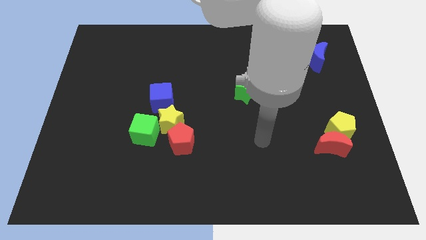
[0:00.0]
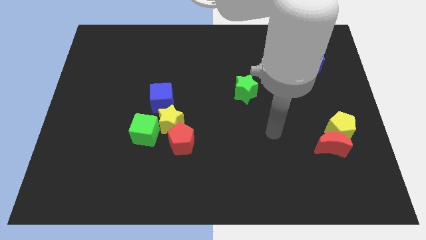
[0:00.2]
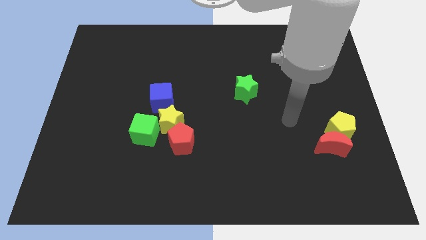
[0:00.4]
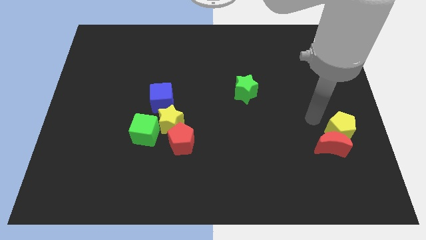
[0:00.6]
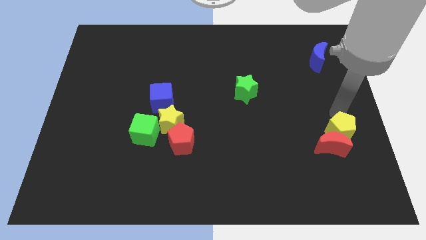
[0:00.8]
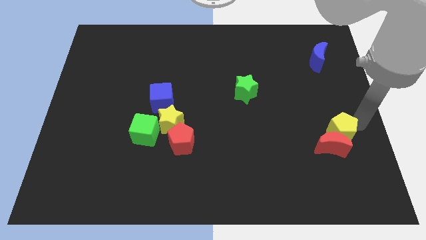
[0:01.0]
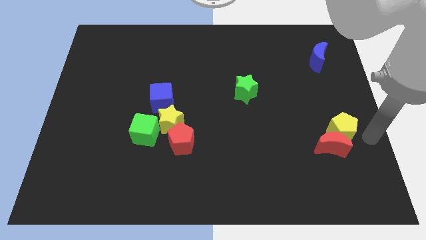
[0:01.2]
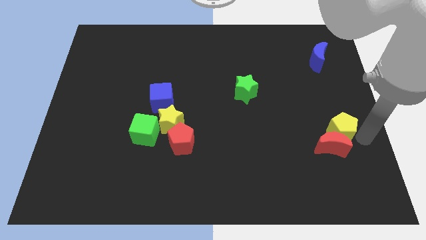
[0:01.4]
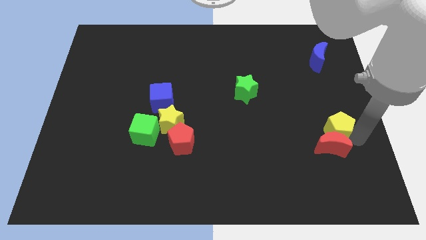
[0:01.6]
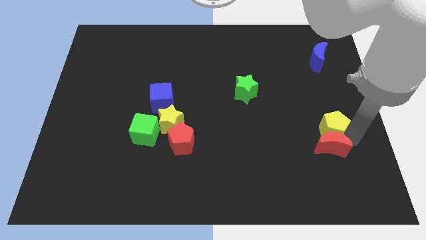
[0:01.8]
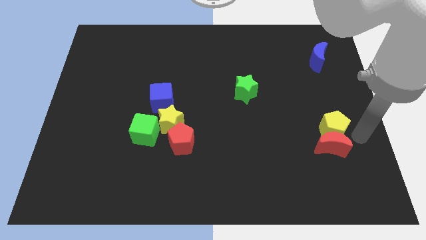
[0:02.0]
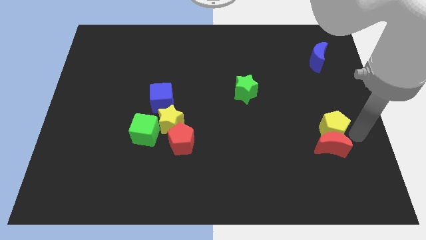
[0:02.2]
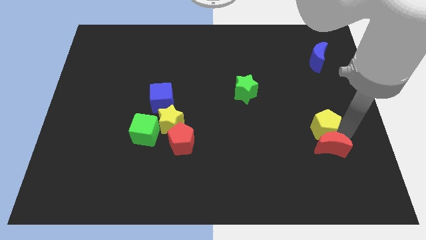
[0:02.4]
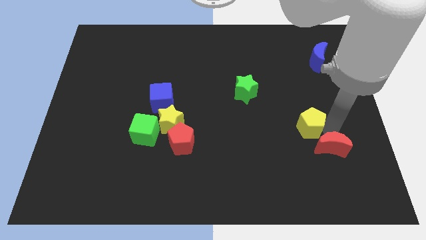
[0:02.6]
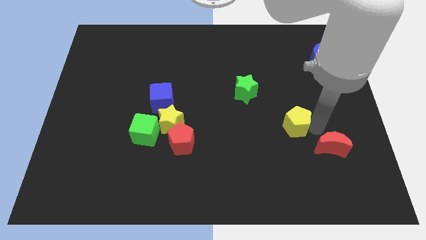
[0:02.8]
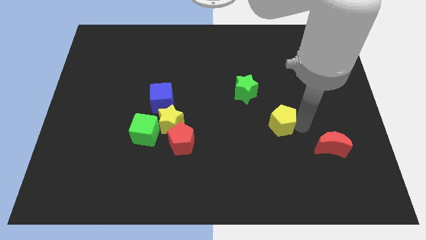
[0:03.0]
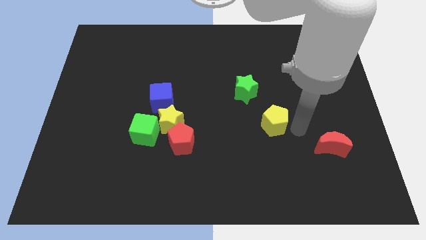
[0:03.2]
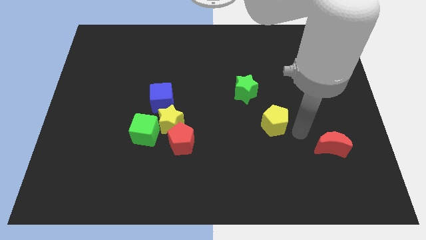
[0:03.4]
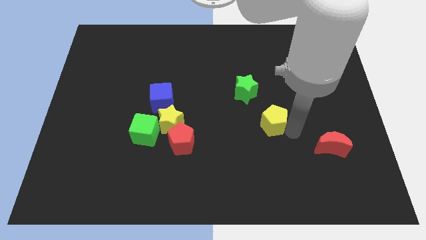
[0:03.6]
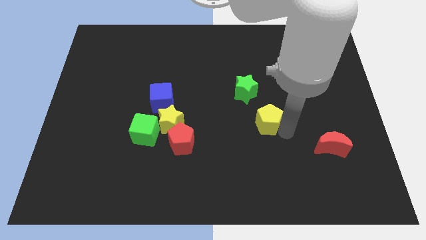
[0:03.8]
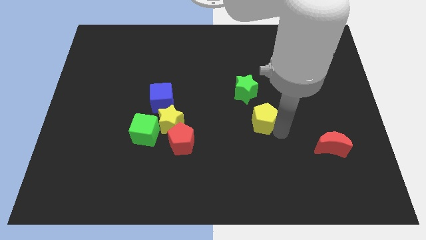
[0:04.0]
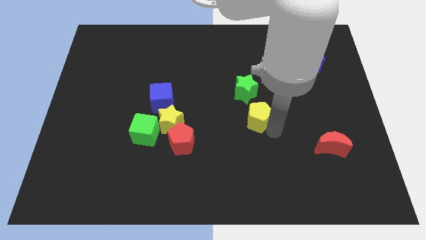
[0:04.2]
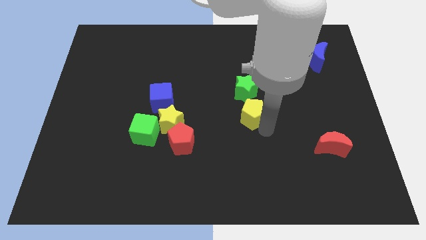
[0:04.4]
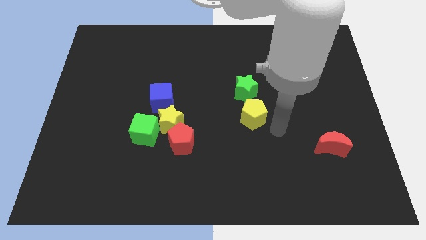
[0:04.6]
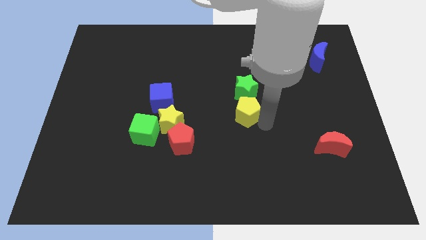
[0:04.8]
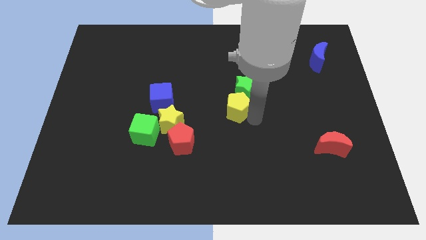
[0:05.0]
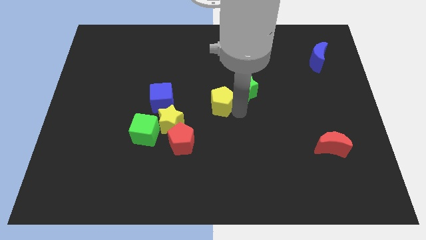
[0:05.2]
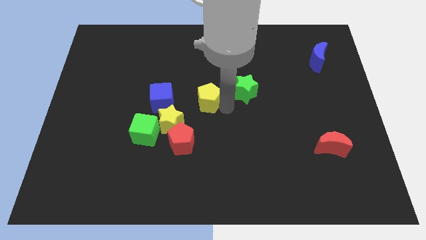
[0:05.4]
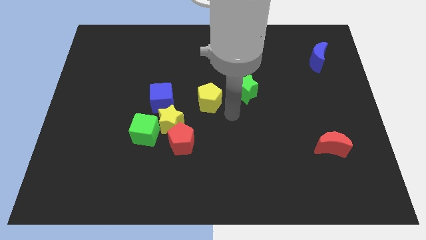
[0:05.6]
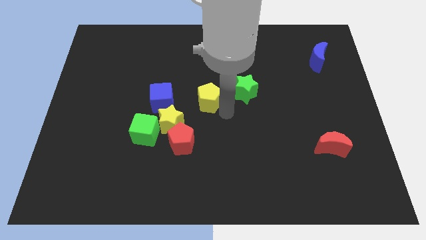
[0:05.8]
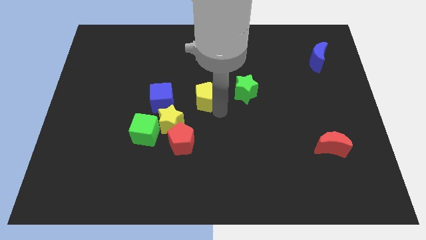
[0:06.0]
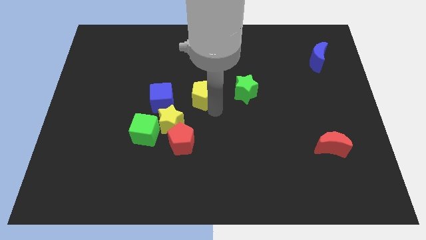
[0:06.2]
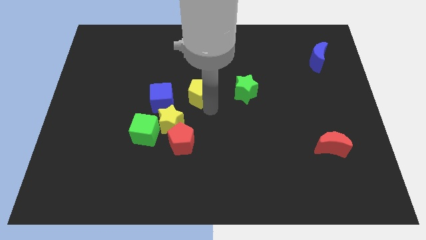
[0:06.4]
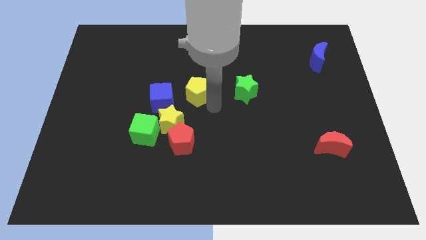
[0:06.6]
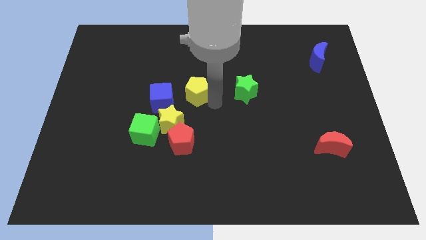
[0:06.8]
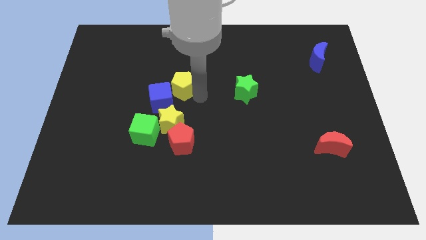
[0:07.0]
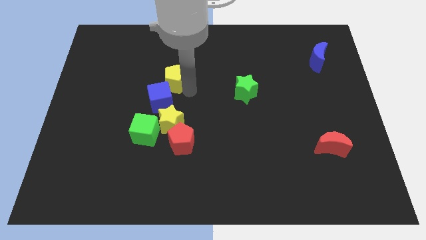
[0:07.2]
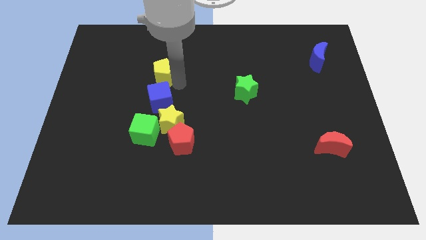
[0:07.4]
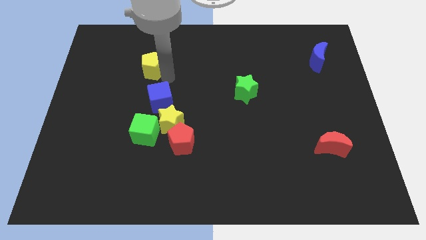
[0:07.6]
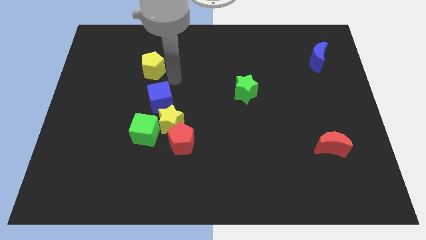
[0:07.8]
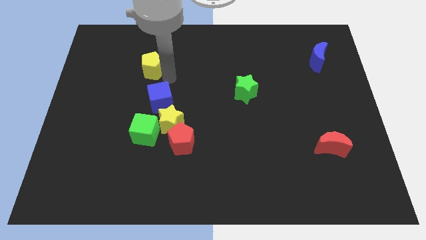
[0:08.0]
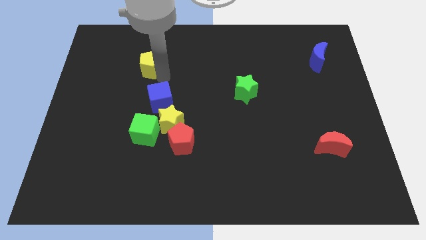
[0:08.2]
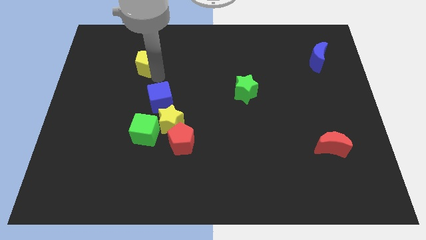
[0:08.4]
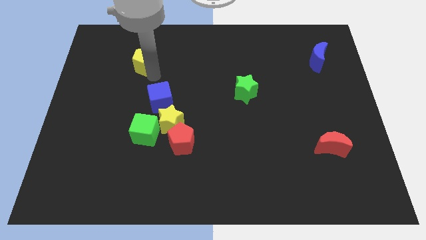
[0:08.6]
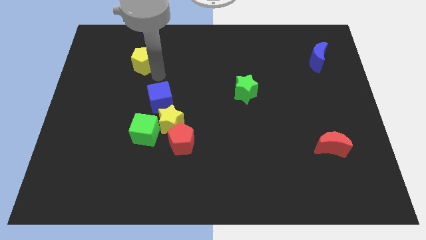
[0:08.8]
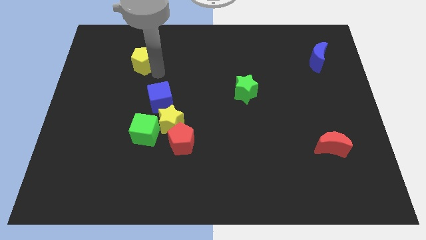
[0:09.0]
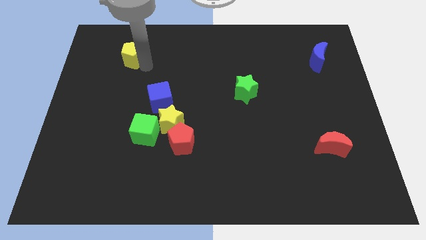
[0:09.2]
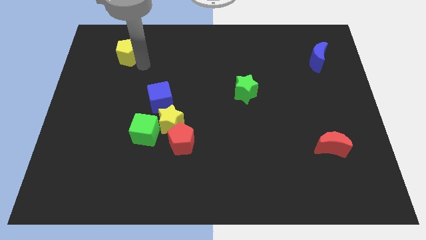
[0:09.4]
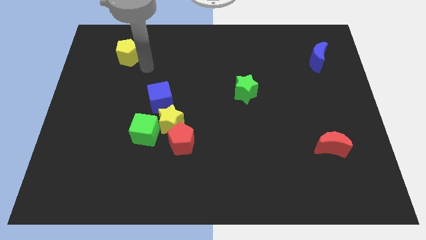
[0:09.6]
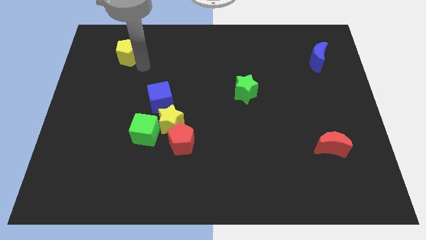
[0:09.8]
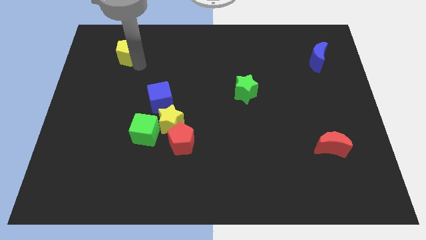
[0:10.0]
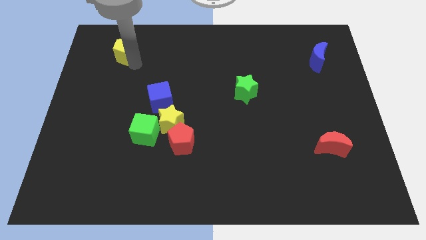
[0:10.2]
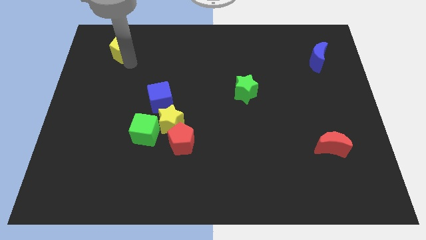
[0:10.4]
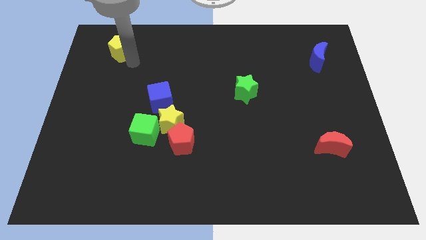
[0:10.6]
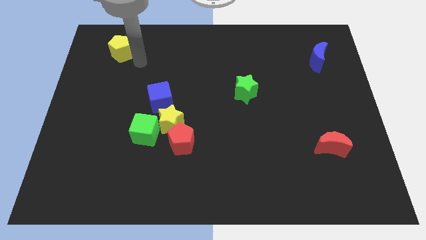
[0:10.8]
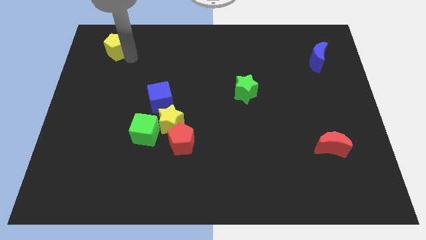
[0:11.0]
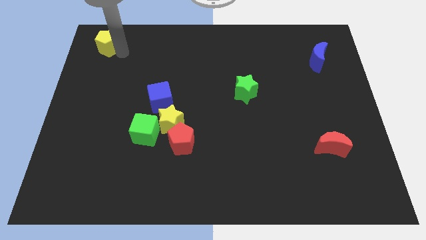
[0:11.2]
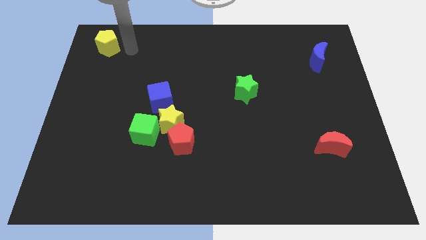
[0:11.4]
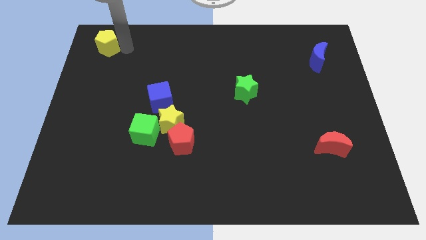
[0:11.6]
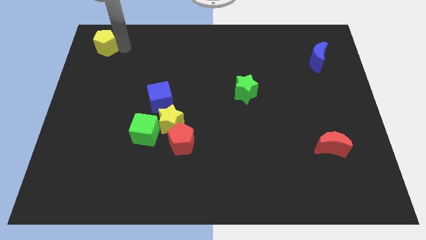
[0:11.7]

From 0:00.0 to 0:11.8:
move the yellow pentagon to the top left of the board
